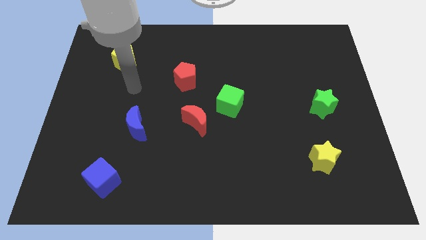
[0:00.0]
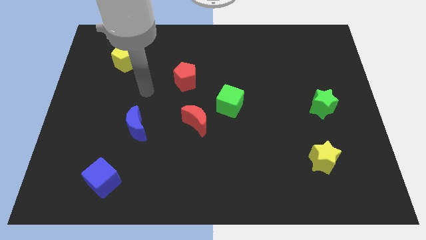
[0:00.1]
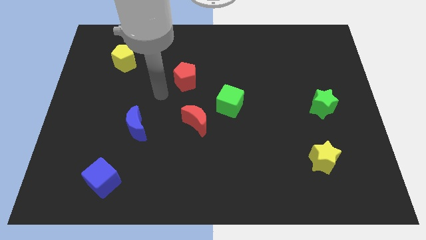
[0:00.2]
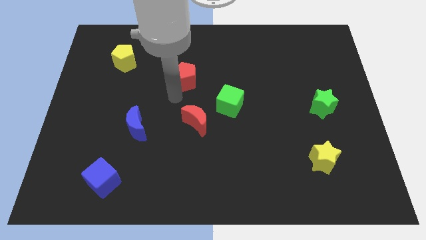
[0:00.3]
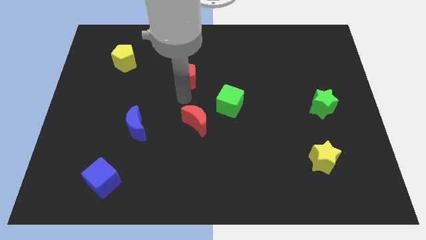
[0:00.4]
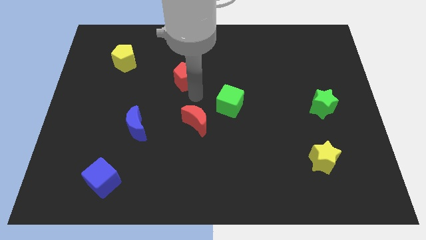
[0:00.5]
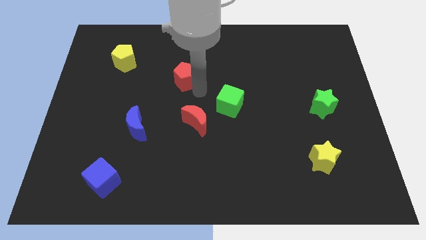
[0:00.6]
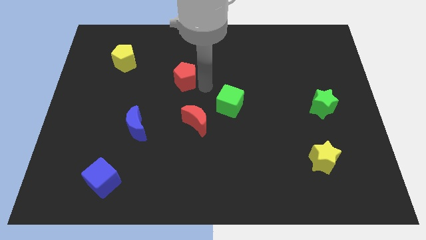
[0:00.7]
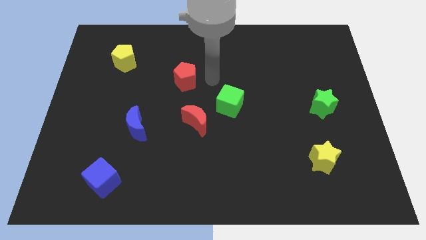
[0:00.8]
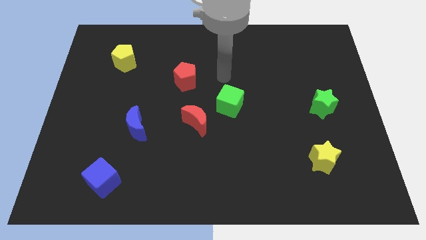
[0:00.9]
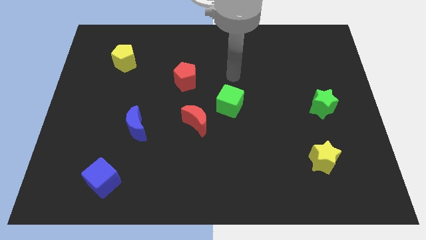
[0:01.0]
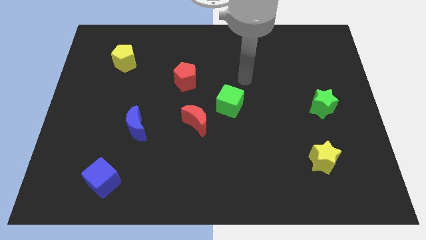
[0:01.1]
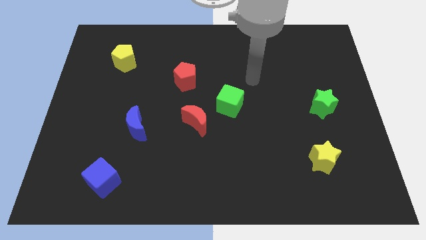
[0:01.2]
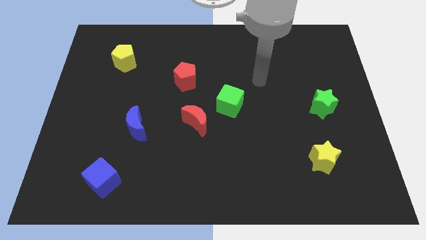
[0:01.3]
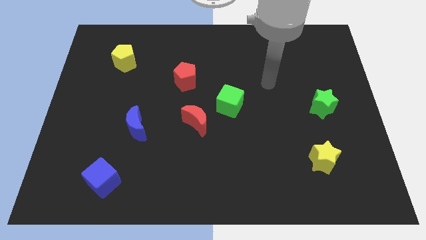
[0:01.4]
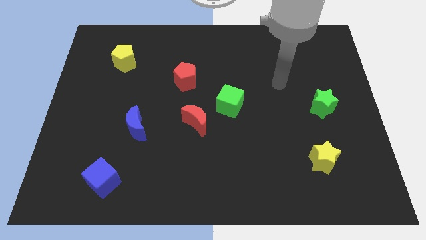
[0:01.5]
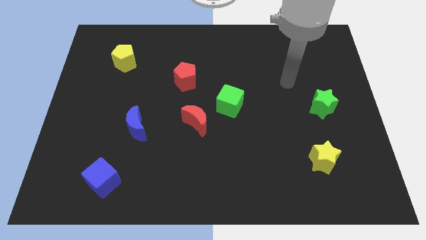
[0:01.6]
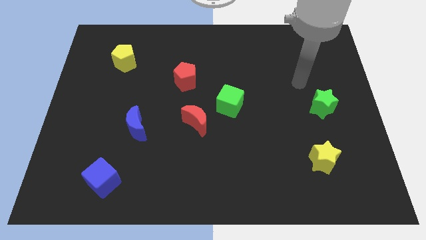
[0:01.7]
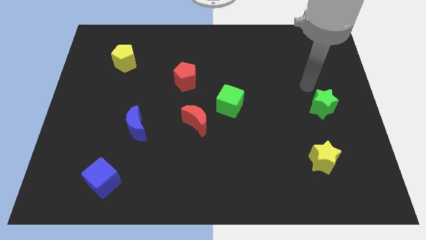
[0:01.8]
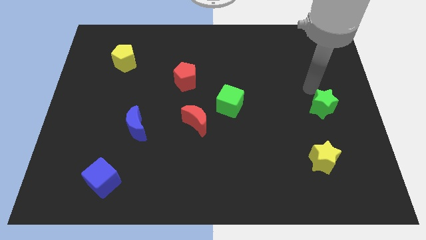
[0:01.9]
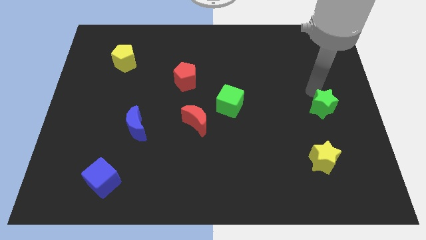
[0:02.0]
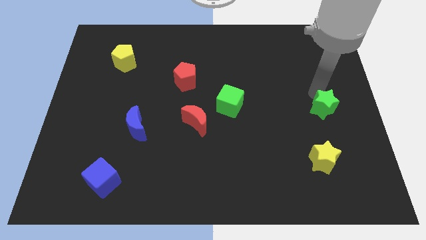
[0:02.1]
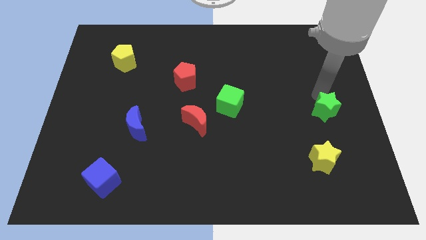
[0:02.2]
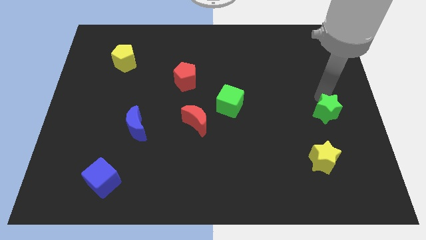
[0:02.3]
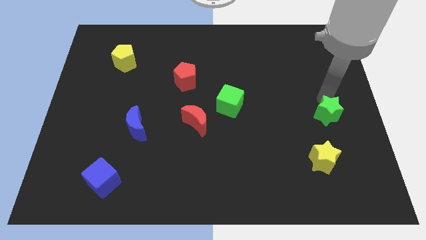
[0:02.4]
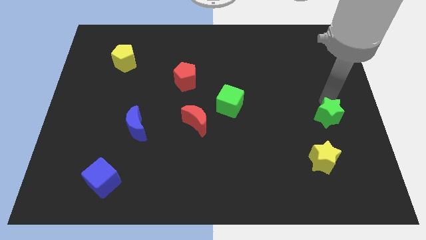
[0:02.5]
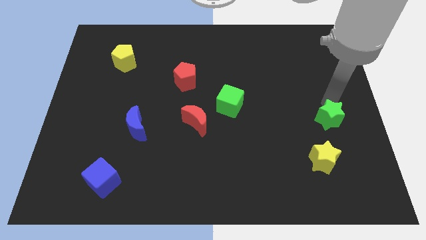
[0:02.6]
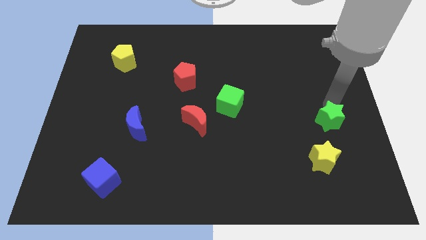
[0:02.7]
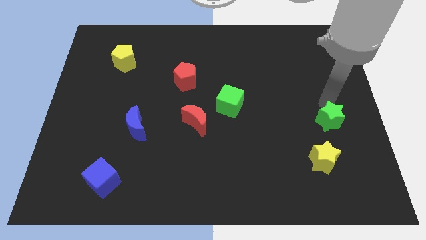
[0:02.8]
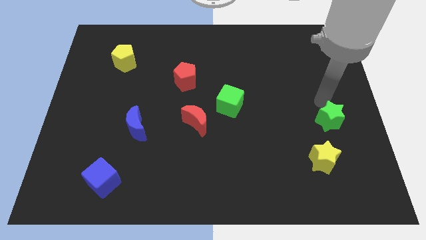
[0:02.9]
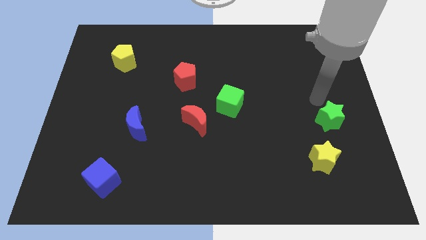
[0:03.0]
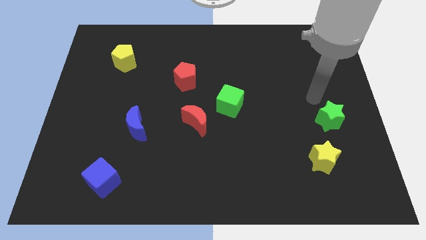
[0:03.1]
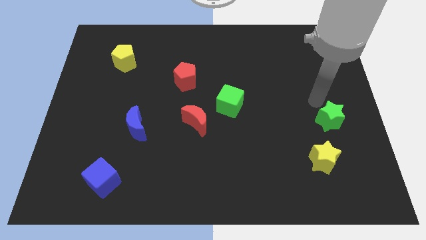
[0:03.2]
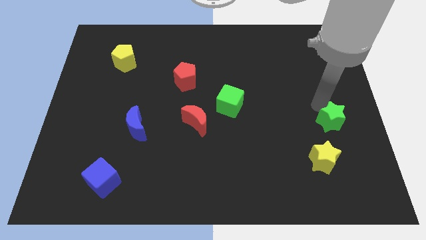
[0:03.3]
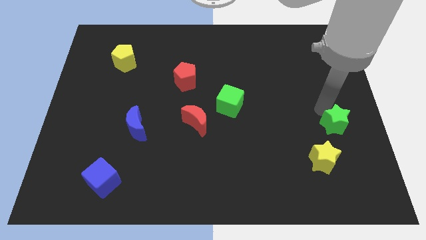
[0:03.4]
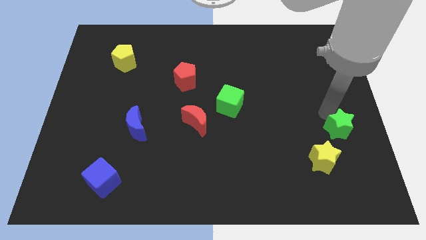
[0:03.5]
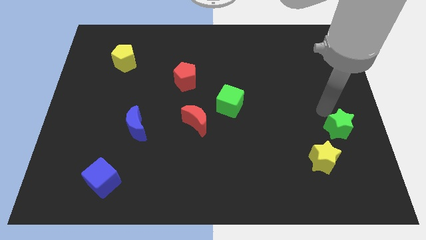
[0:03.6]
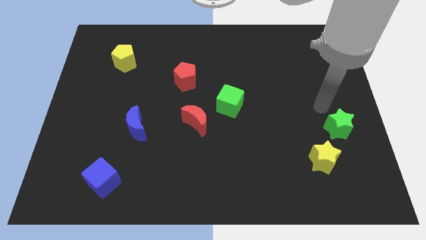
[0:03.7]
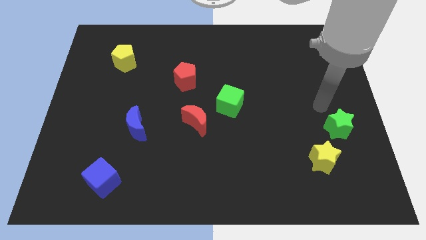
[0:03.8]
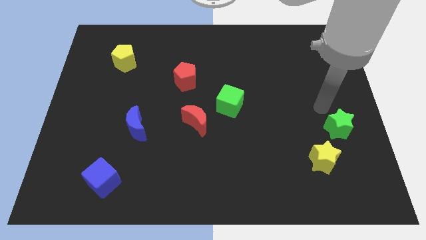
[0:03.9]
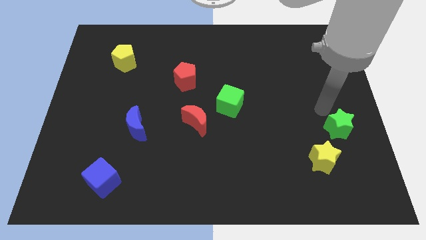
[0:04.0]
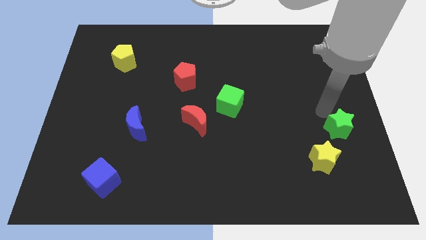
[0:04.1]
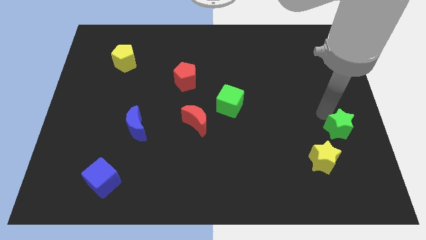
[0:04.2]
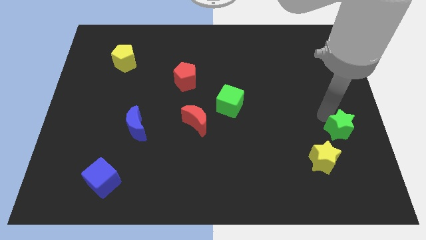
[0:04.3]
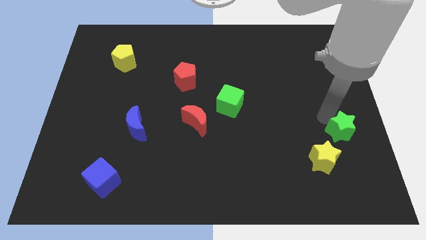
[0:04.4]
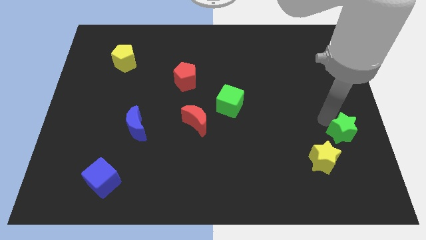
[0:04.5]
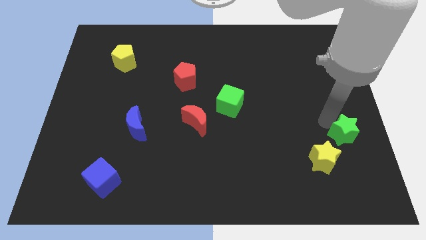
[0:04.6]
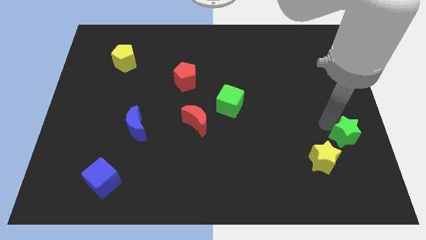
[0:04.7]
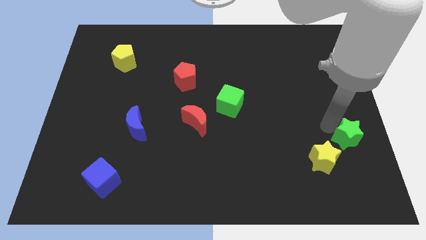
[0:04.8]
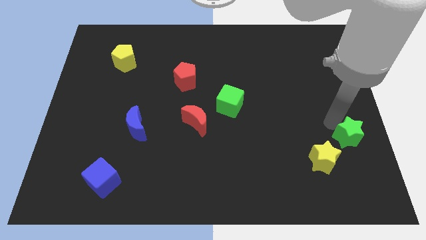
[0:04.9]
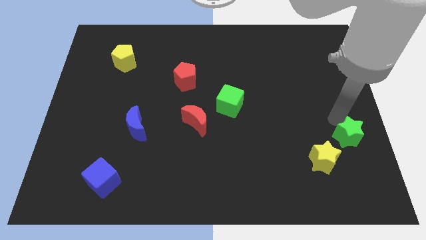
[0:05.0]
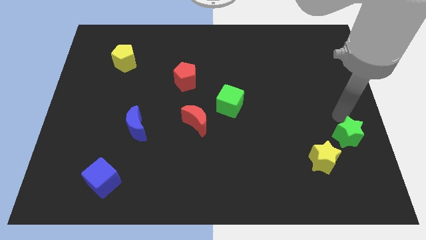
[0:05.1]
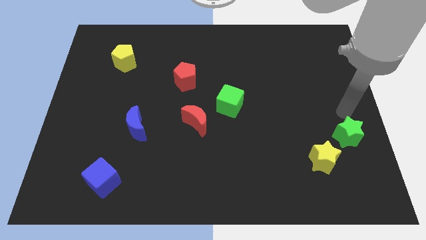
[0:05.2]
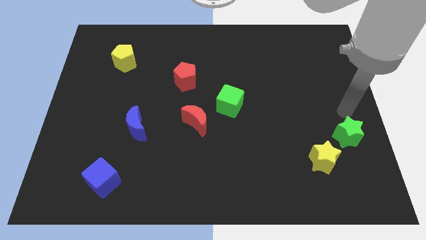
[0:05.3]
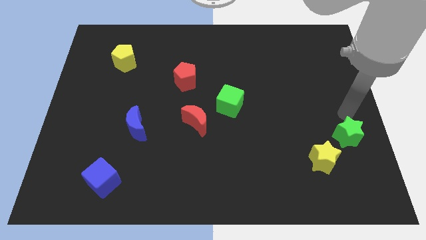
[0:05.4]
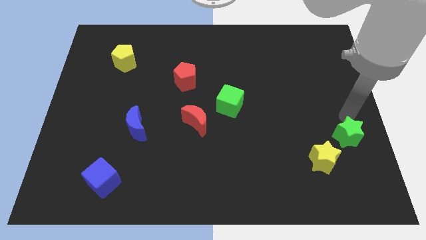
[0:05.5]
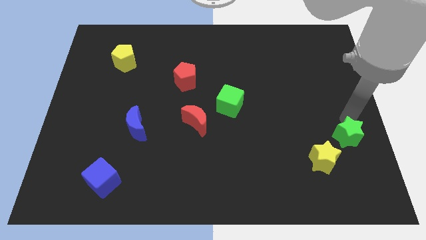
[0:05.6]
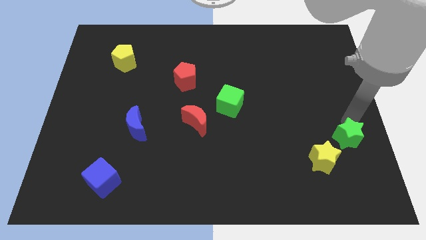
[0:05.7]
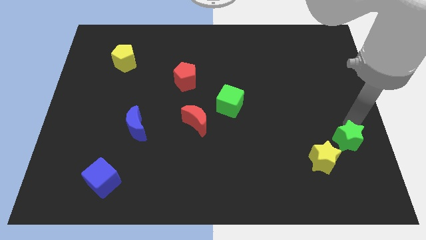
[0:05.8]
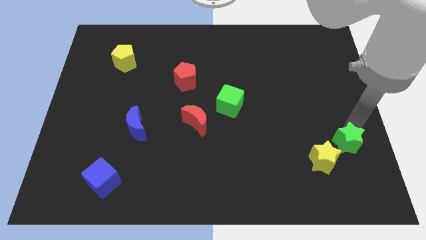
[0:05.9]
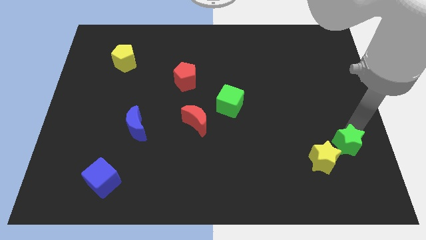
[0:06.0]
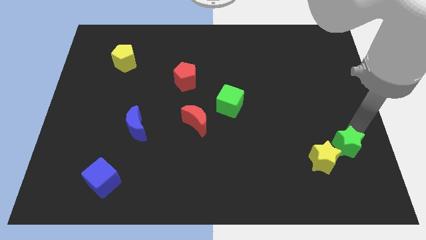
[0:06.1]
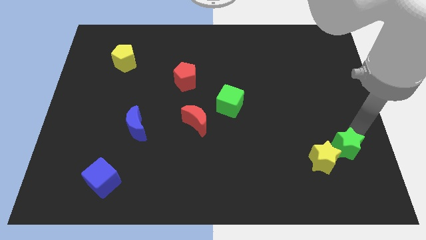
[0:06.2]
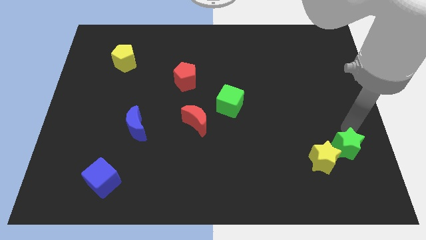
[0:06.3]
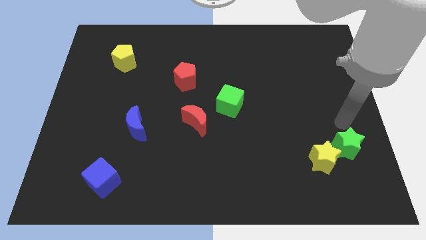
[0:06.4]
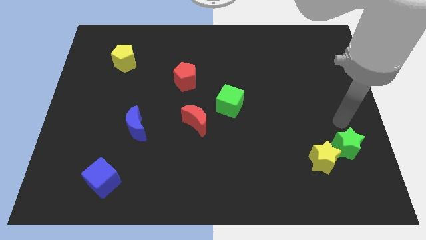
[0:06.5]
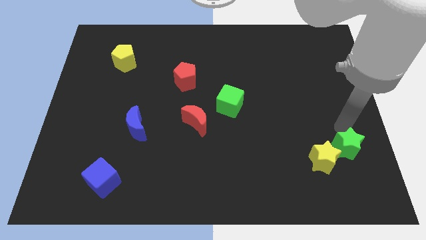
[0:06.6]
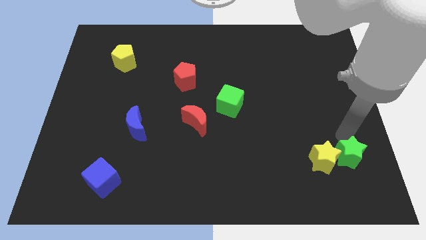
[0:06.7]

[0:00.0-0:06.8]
move the green star diagonally down and to the right of the yellow star
